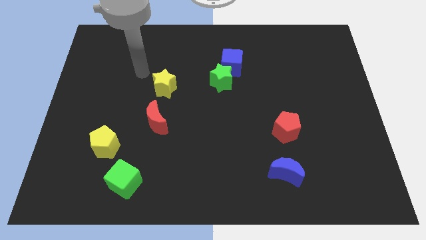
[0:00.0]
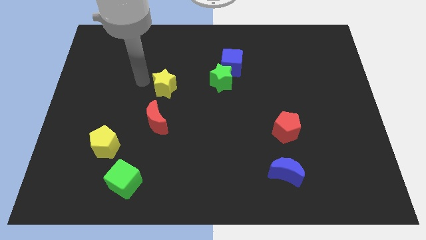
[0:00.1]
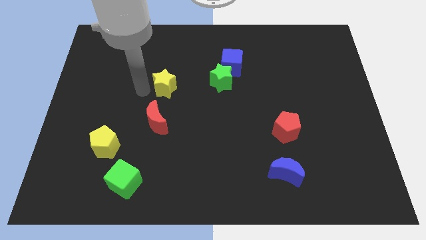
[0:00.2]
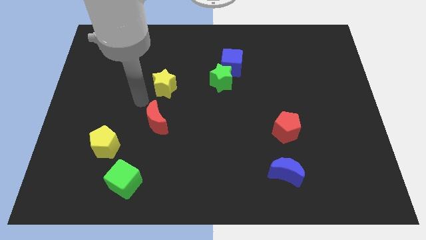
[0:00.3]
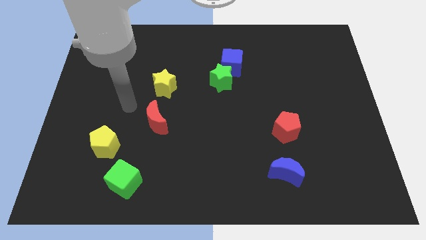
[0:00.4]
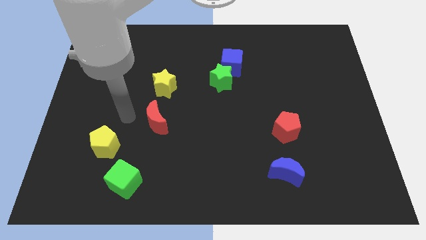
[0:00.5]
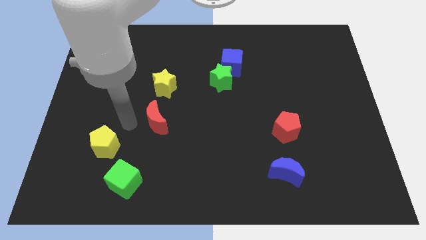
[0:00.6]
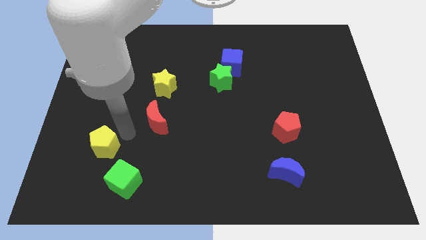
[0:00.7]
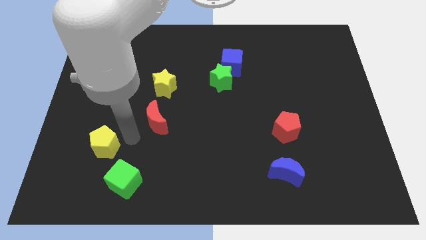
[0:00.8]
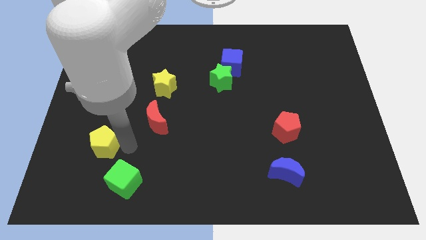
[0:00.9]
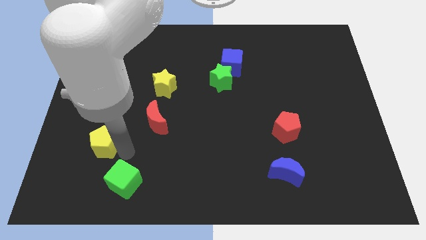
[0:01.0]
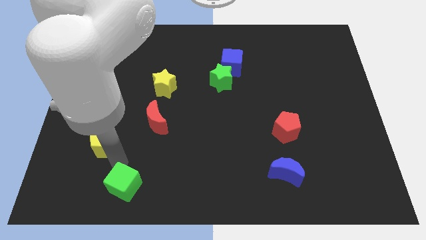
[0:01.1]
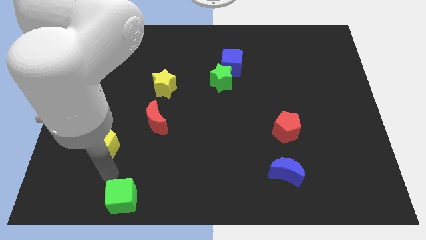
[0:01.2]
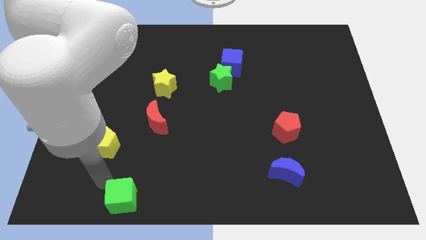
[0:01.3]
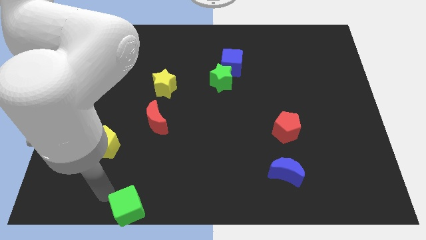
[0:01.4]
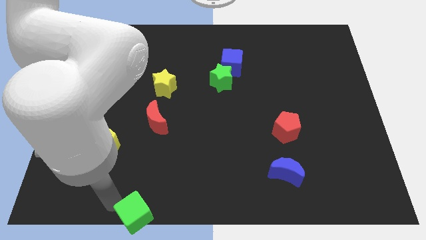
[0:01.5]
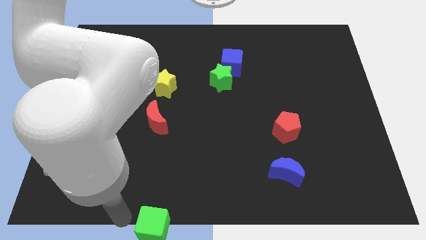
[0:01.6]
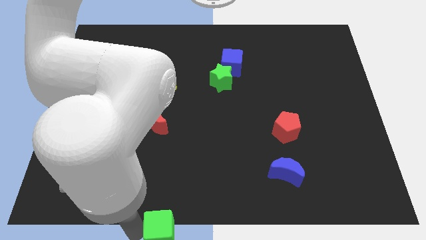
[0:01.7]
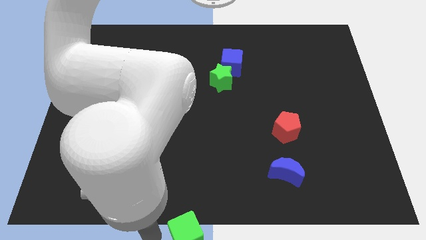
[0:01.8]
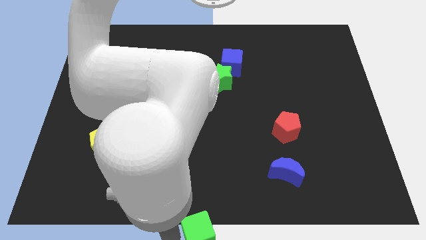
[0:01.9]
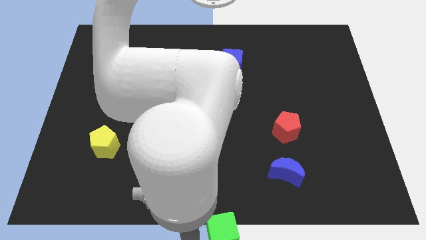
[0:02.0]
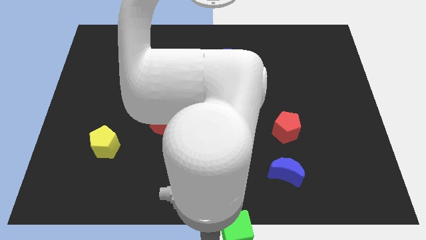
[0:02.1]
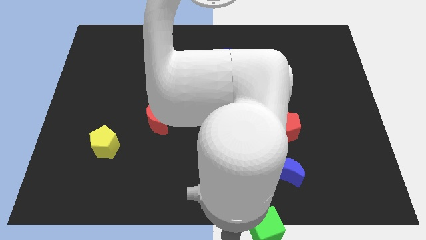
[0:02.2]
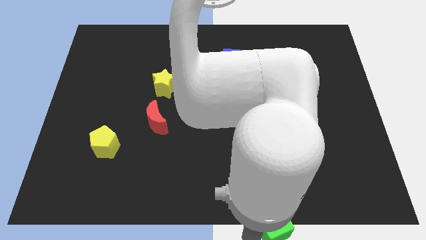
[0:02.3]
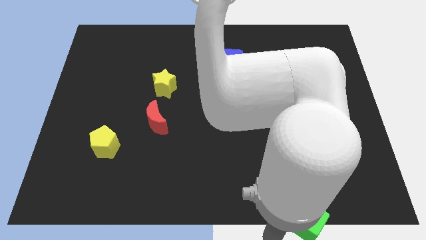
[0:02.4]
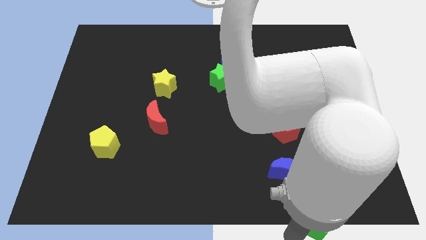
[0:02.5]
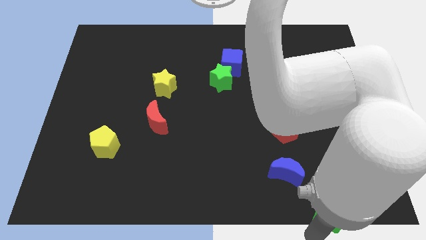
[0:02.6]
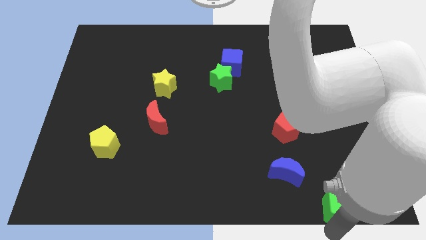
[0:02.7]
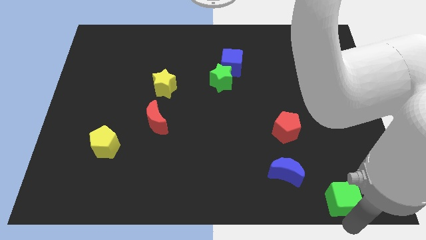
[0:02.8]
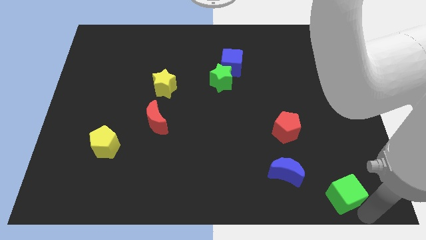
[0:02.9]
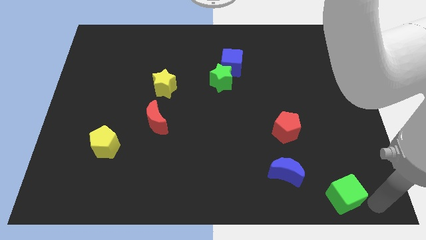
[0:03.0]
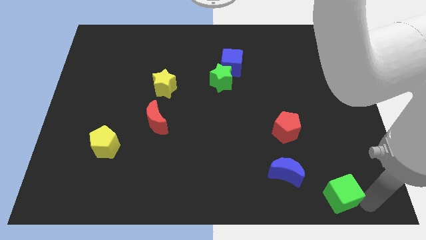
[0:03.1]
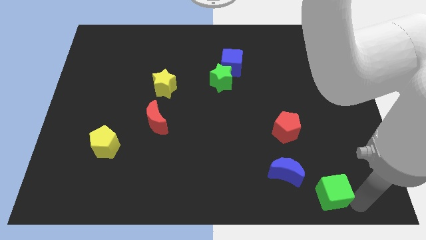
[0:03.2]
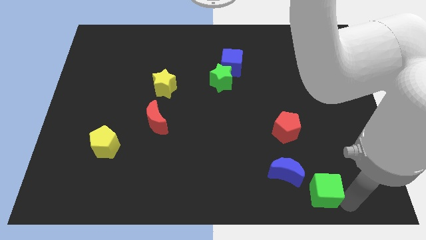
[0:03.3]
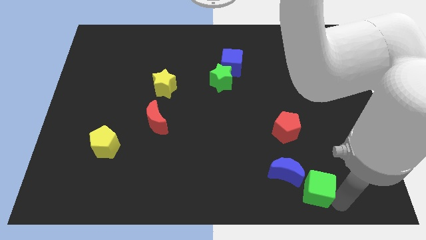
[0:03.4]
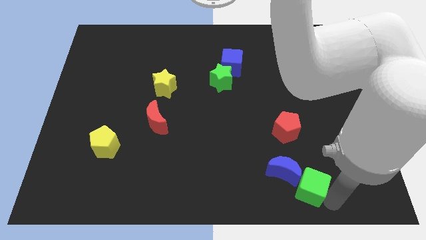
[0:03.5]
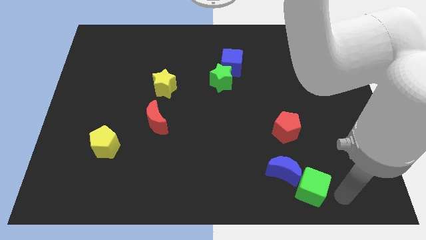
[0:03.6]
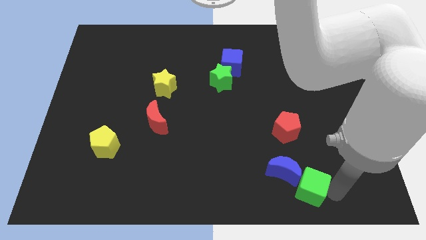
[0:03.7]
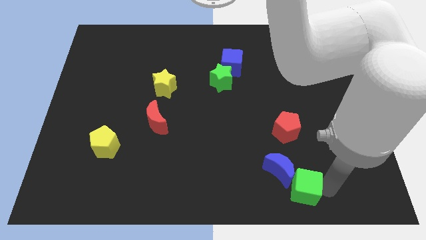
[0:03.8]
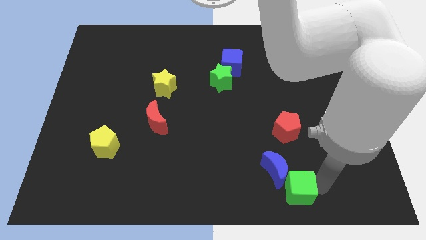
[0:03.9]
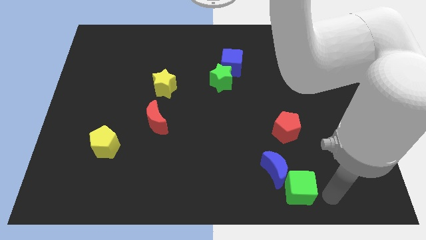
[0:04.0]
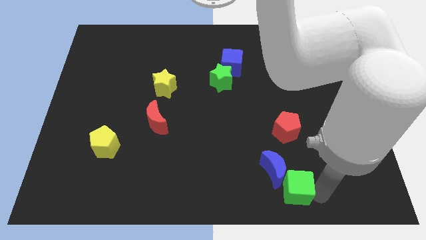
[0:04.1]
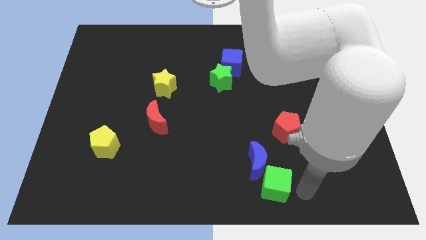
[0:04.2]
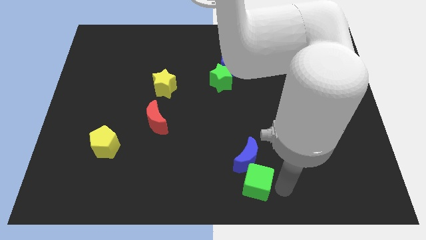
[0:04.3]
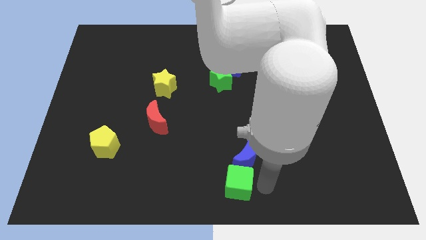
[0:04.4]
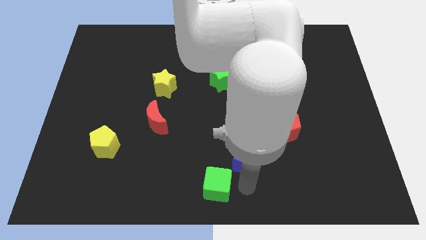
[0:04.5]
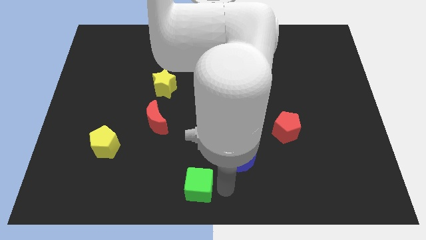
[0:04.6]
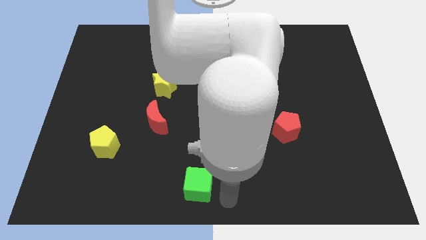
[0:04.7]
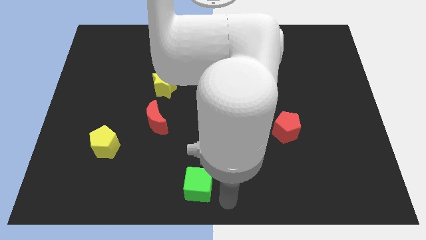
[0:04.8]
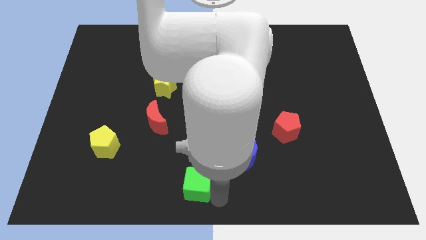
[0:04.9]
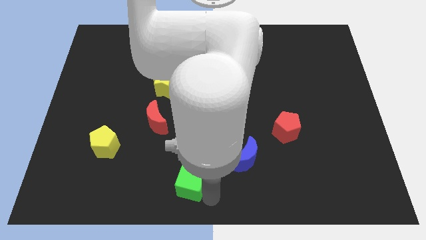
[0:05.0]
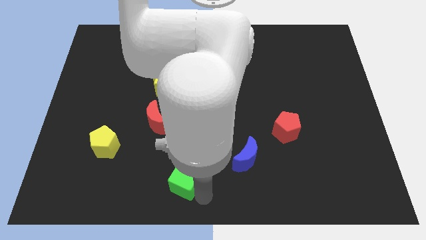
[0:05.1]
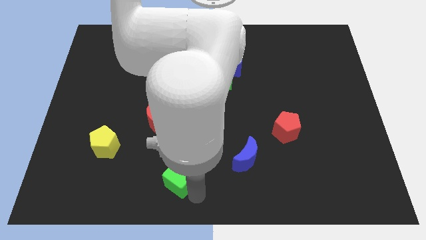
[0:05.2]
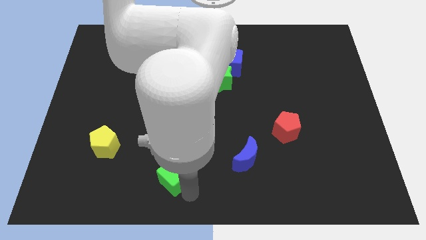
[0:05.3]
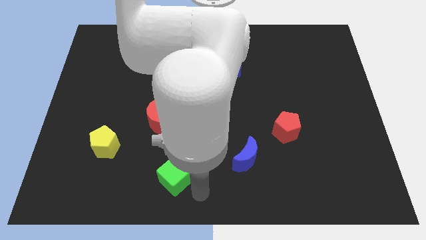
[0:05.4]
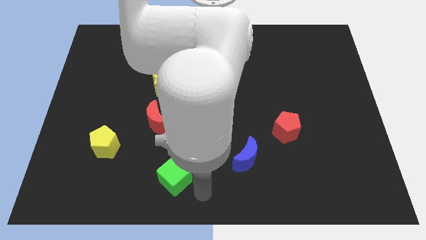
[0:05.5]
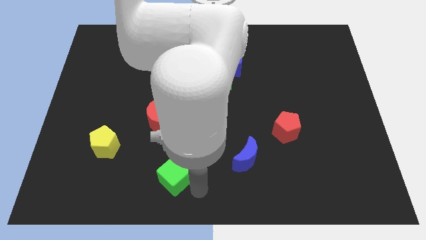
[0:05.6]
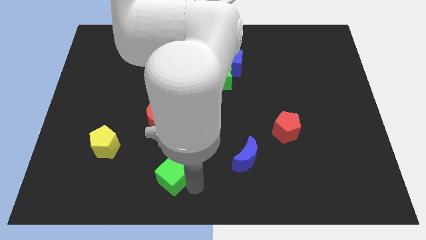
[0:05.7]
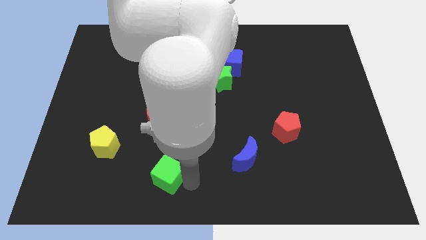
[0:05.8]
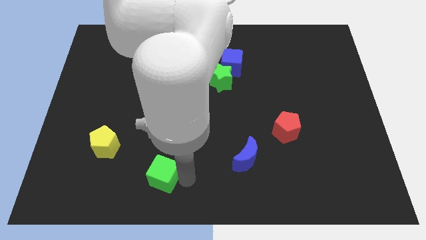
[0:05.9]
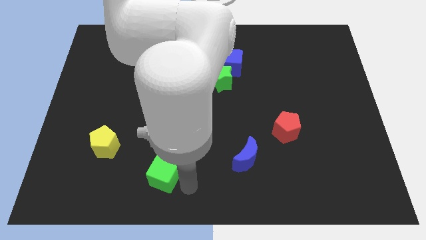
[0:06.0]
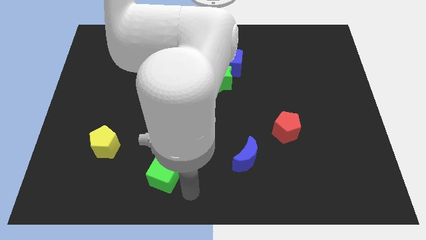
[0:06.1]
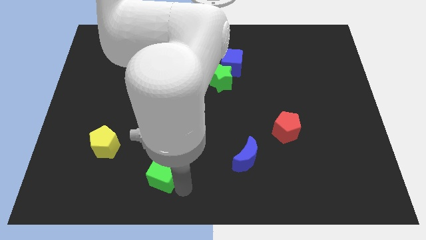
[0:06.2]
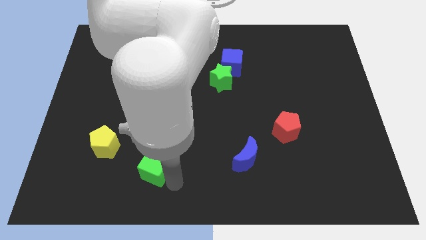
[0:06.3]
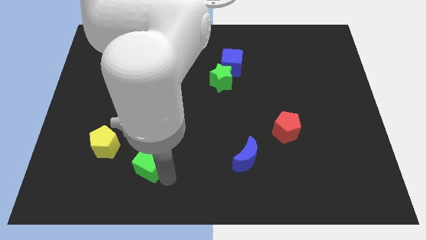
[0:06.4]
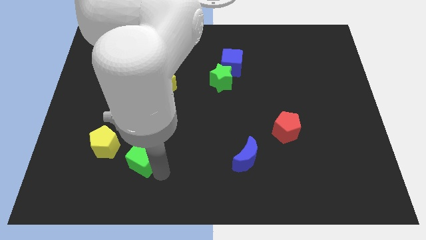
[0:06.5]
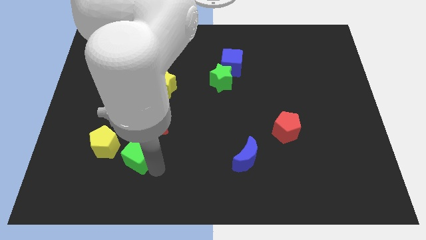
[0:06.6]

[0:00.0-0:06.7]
put the green cube to the bottom left of the red moon
